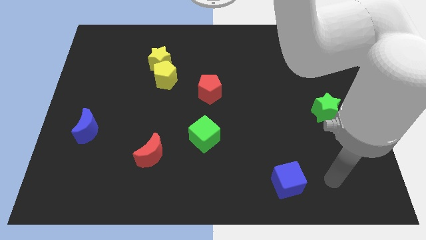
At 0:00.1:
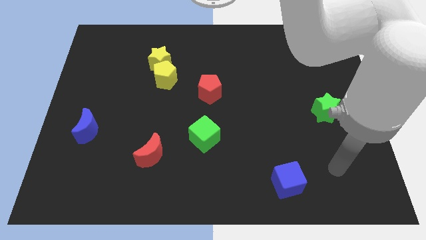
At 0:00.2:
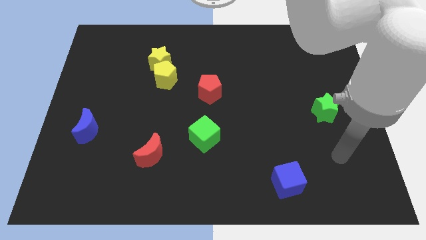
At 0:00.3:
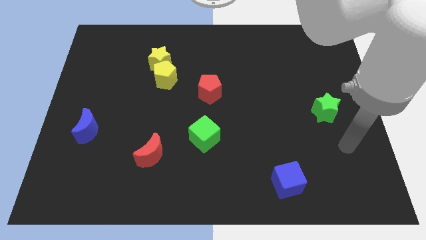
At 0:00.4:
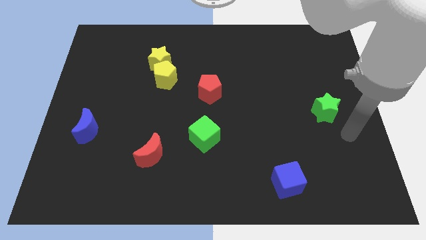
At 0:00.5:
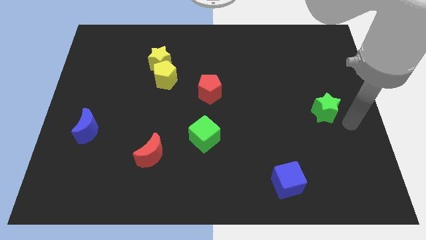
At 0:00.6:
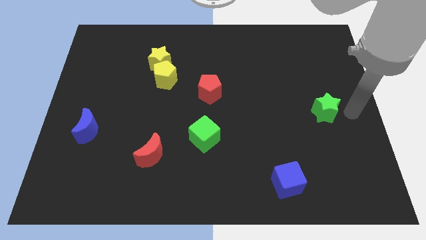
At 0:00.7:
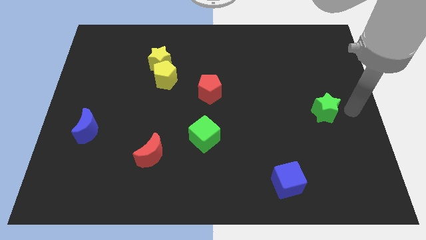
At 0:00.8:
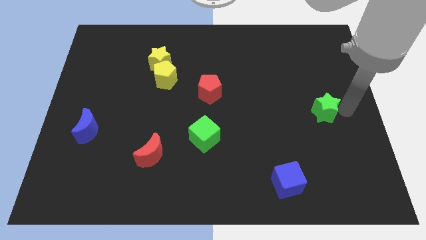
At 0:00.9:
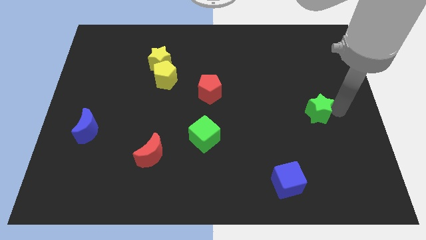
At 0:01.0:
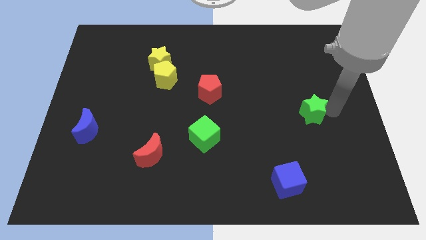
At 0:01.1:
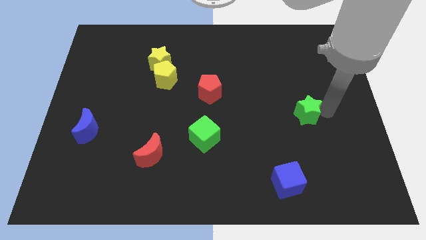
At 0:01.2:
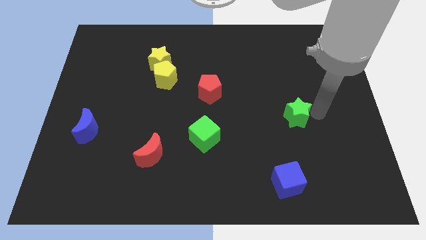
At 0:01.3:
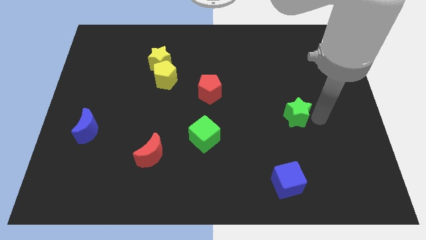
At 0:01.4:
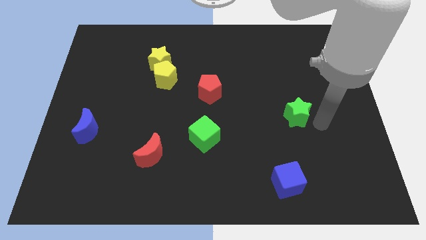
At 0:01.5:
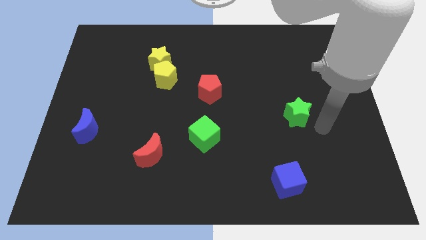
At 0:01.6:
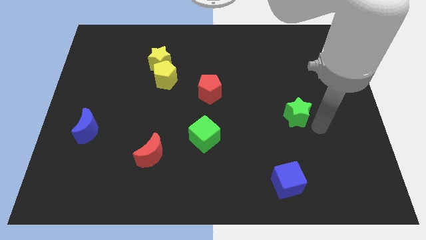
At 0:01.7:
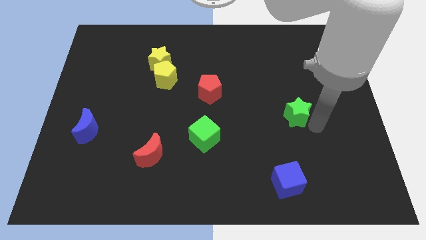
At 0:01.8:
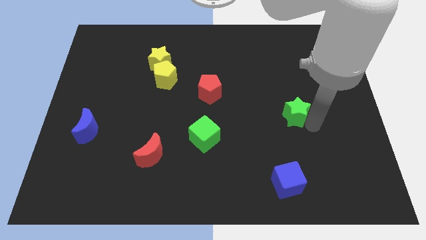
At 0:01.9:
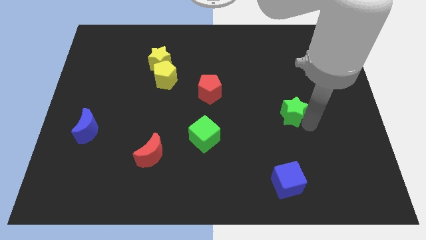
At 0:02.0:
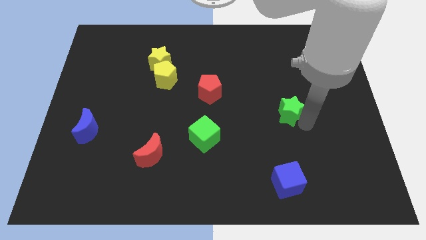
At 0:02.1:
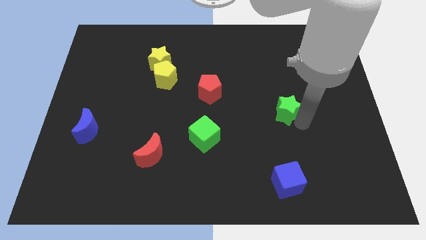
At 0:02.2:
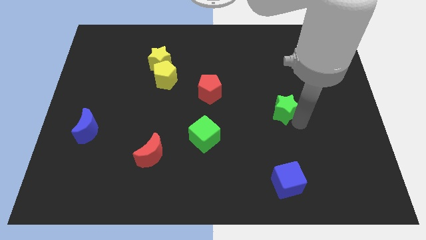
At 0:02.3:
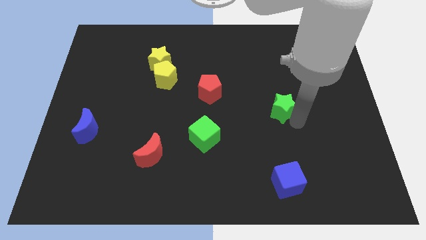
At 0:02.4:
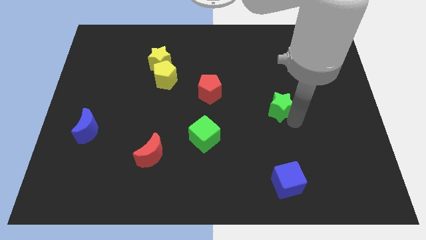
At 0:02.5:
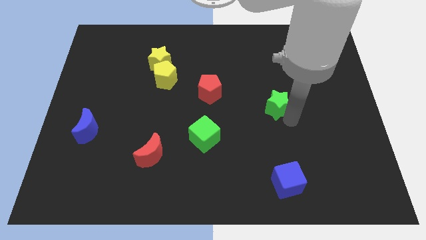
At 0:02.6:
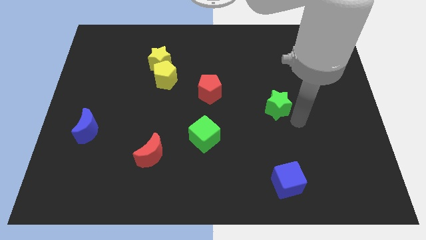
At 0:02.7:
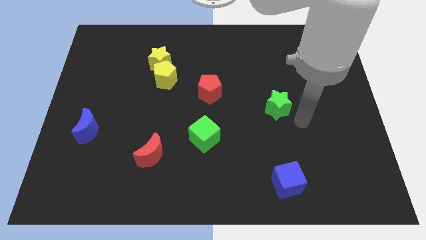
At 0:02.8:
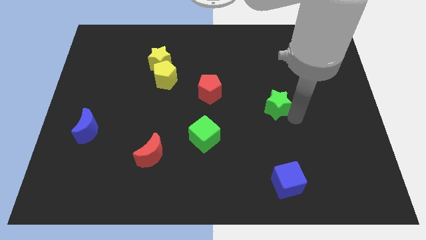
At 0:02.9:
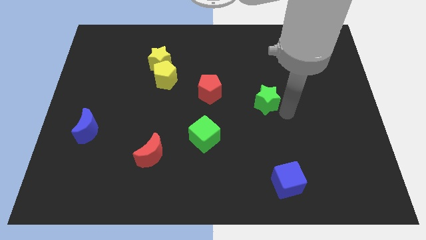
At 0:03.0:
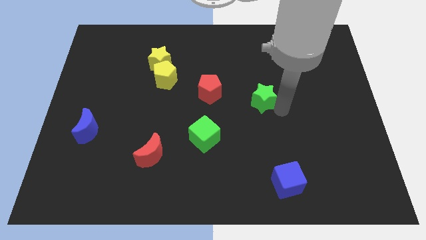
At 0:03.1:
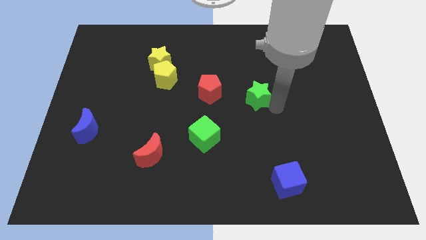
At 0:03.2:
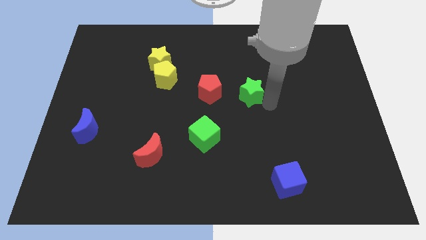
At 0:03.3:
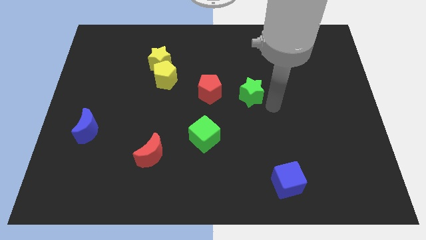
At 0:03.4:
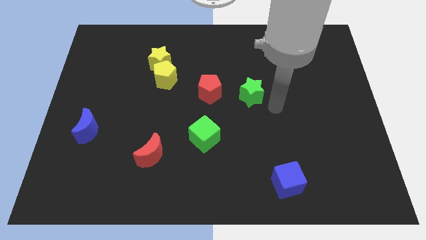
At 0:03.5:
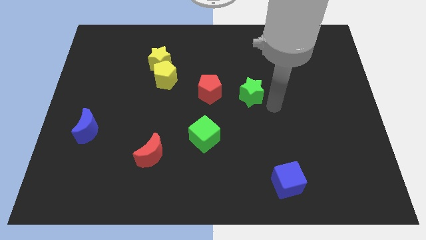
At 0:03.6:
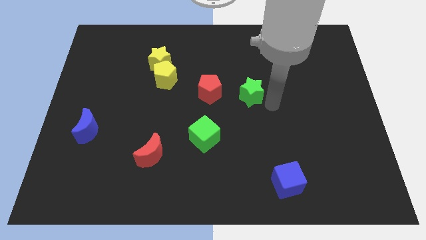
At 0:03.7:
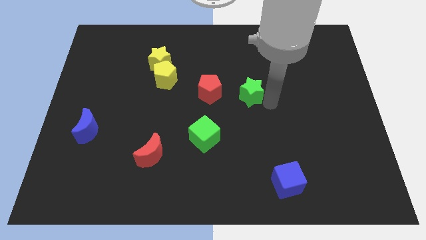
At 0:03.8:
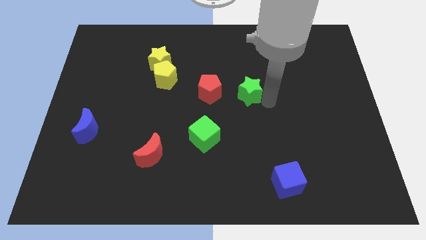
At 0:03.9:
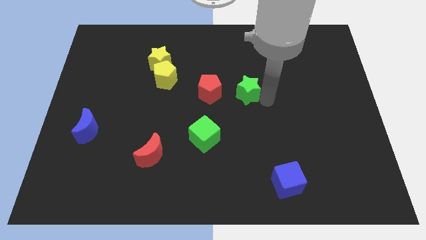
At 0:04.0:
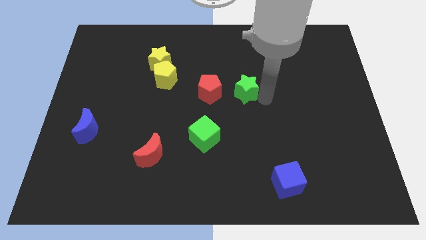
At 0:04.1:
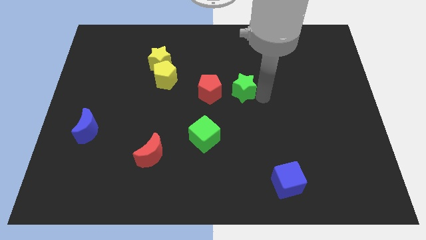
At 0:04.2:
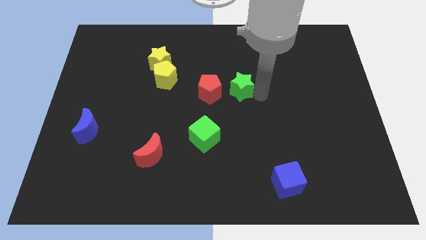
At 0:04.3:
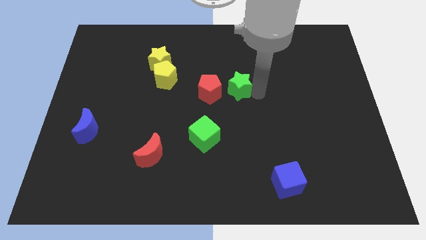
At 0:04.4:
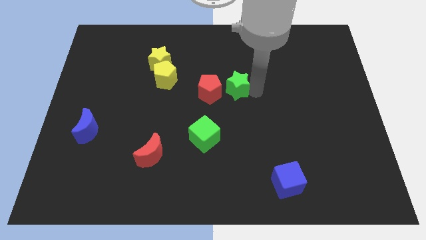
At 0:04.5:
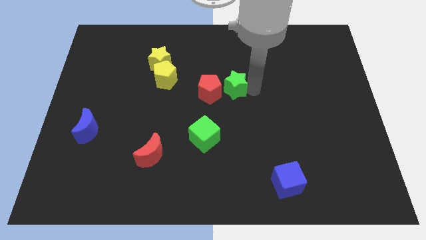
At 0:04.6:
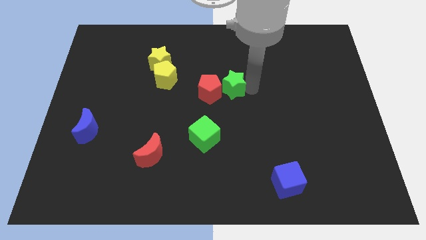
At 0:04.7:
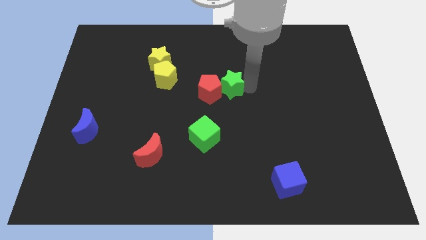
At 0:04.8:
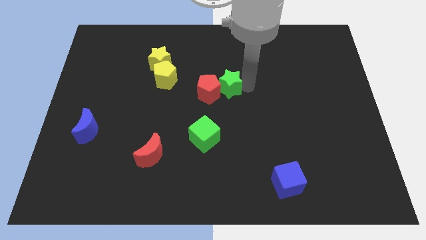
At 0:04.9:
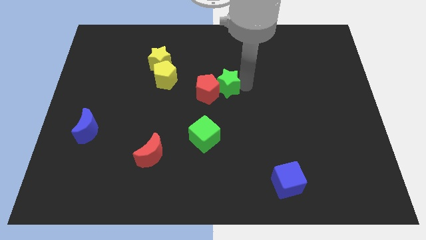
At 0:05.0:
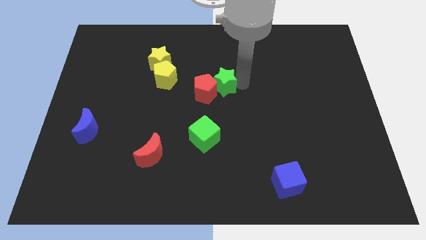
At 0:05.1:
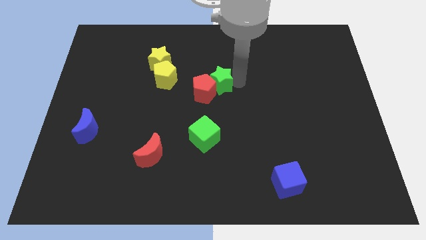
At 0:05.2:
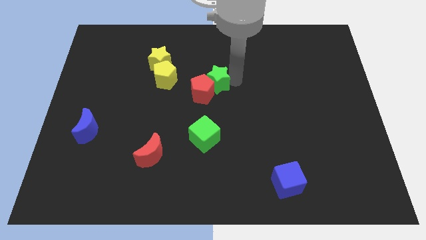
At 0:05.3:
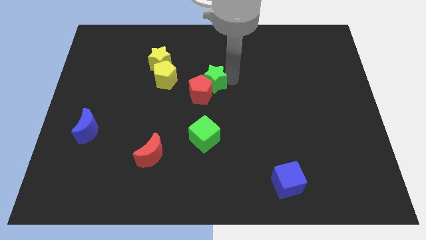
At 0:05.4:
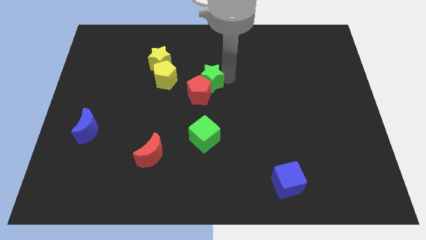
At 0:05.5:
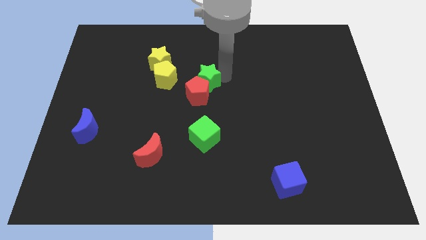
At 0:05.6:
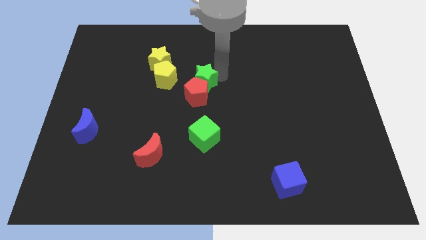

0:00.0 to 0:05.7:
slide the green star to the top left of the red pentagon

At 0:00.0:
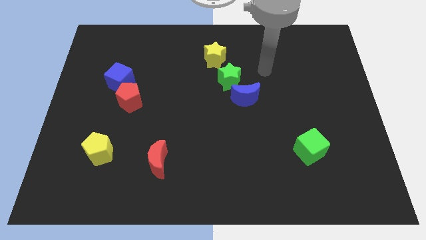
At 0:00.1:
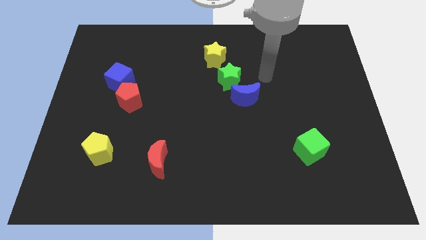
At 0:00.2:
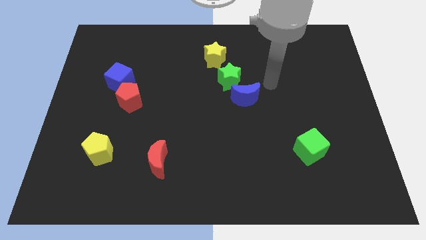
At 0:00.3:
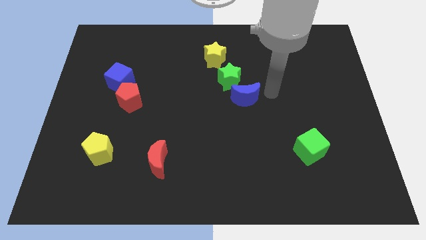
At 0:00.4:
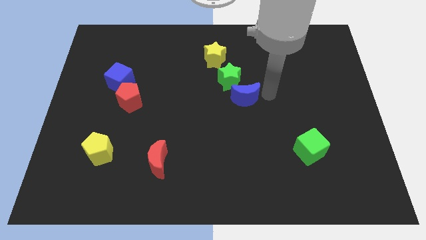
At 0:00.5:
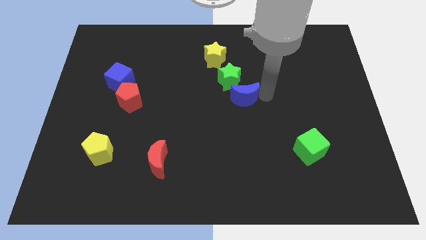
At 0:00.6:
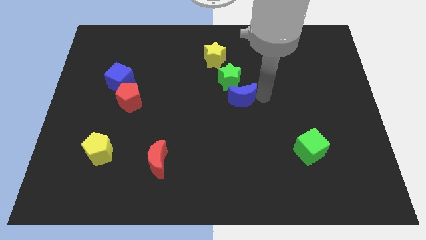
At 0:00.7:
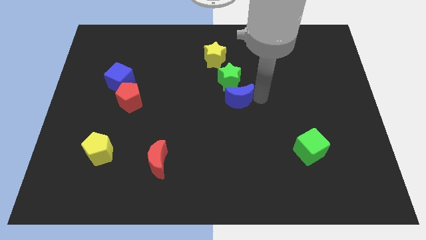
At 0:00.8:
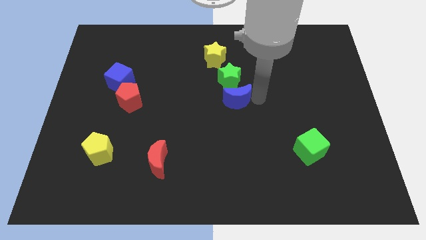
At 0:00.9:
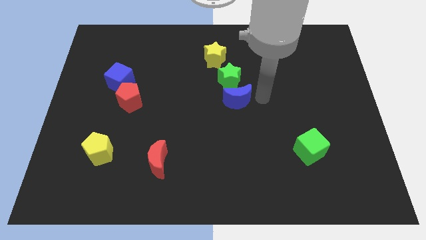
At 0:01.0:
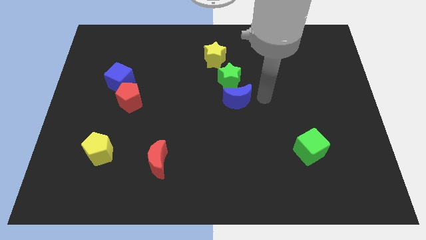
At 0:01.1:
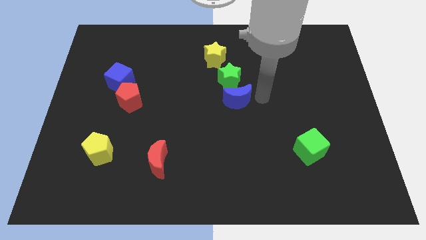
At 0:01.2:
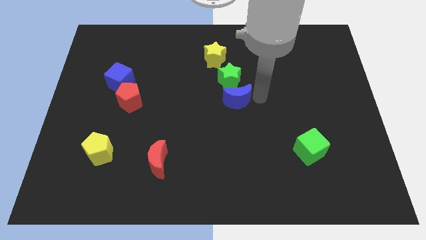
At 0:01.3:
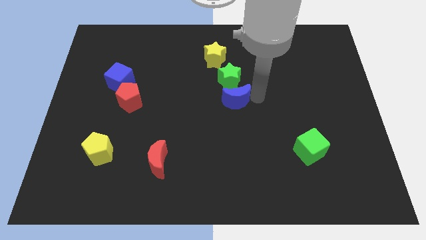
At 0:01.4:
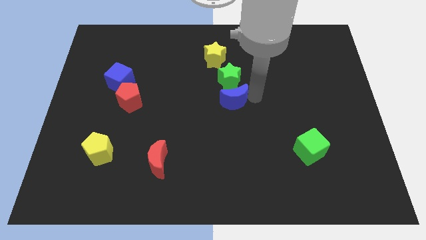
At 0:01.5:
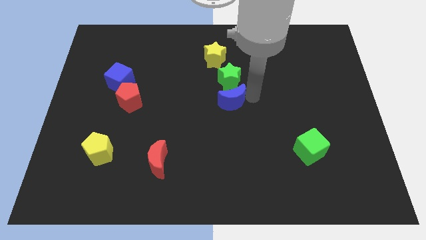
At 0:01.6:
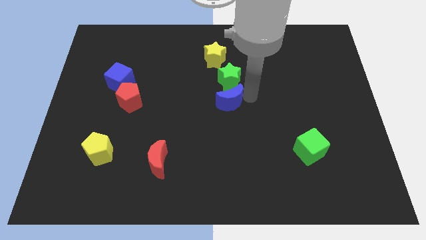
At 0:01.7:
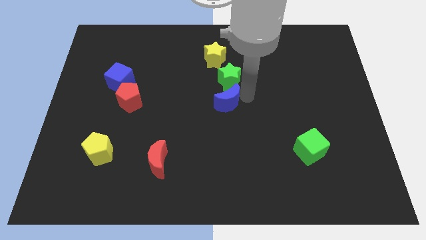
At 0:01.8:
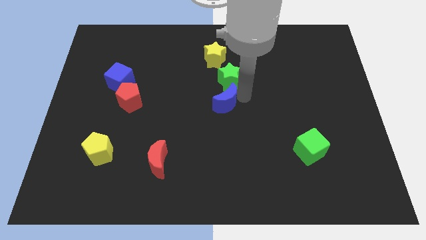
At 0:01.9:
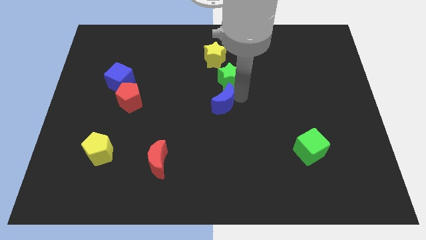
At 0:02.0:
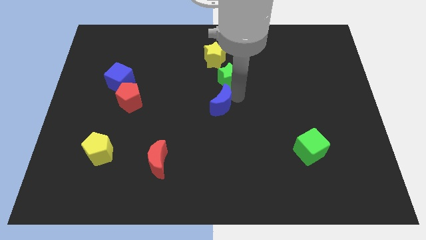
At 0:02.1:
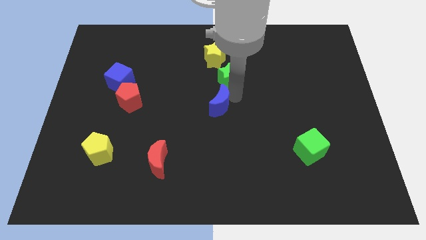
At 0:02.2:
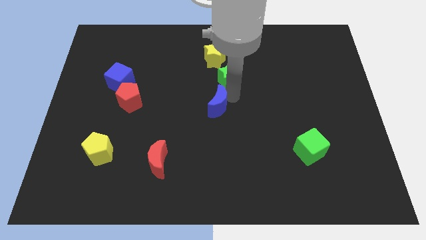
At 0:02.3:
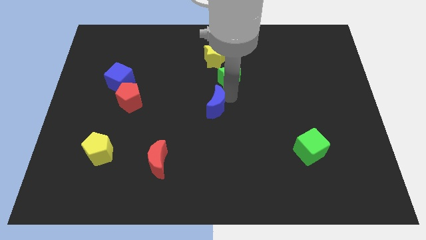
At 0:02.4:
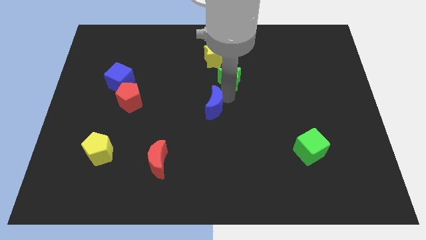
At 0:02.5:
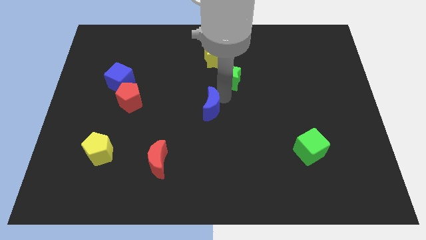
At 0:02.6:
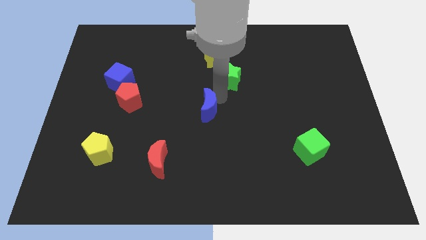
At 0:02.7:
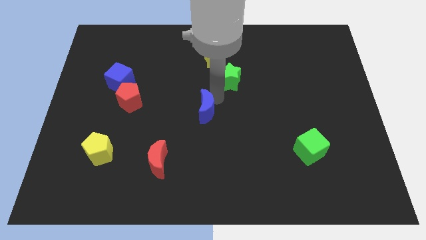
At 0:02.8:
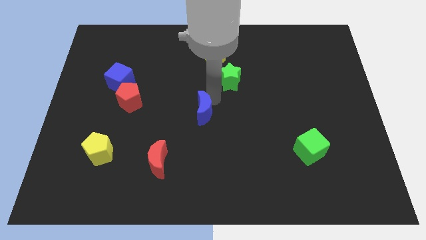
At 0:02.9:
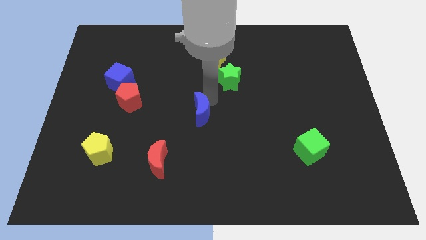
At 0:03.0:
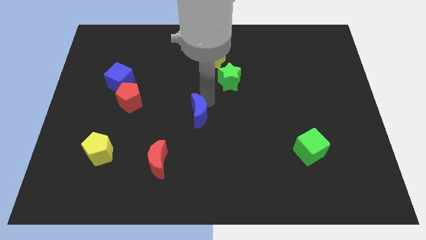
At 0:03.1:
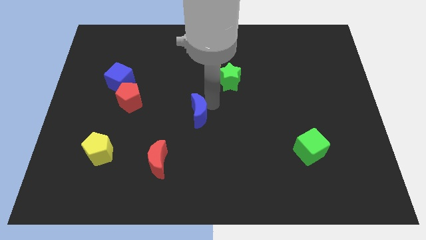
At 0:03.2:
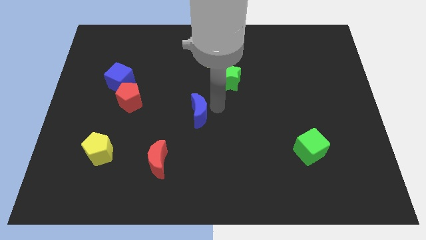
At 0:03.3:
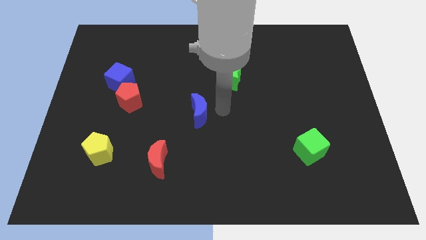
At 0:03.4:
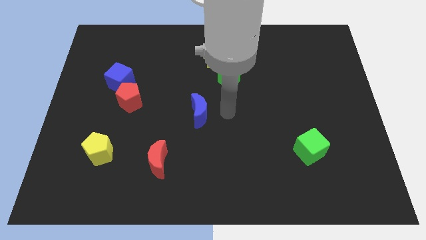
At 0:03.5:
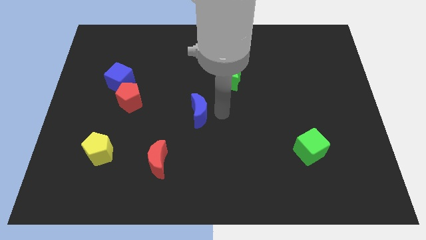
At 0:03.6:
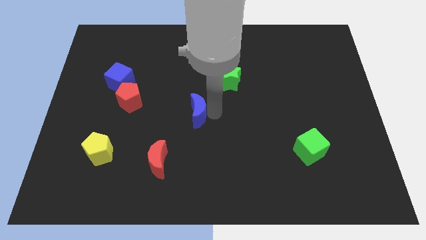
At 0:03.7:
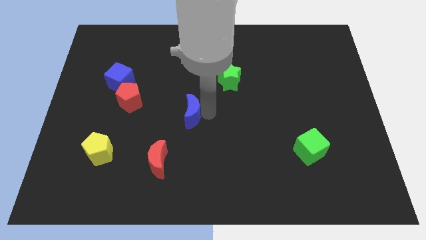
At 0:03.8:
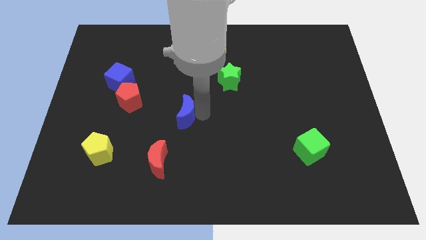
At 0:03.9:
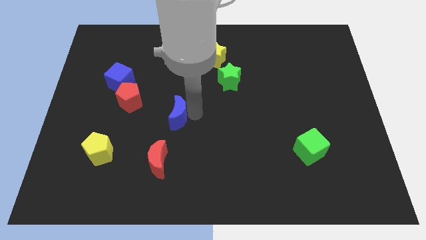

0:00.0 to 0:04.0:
slide the blue moon to the top side of the red moon
